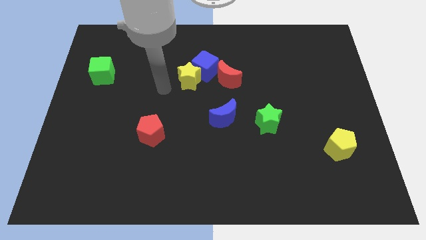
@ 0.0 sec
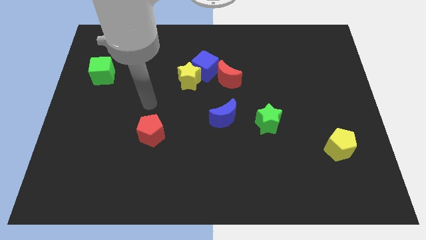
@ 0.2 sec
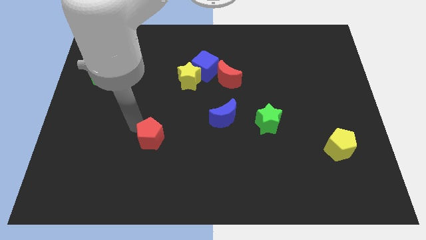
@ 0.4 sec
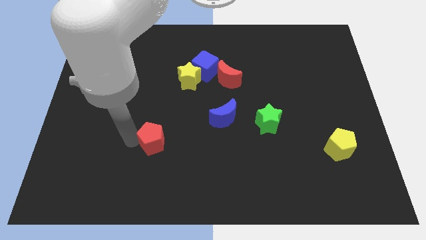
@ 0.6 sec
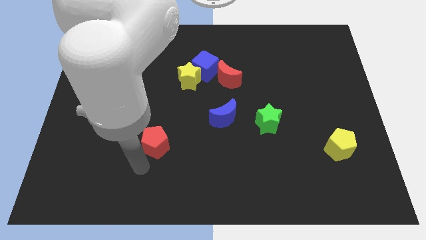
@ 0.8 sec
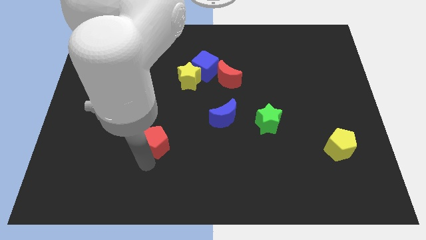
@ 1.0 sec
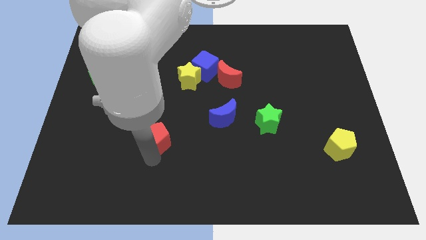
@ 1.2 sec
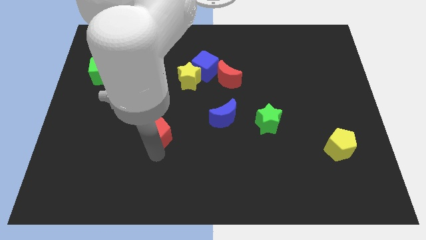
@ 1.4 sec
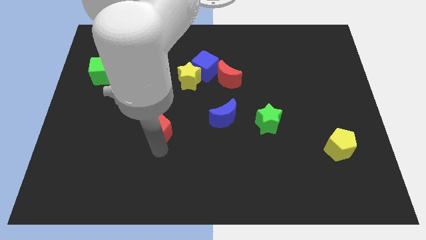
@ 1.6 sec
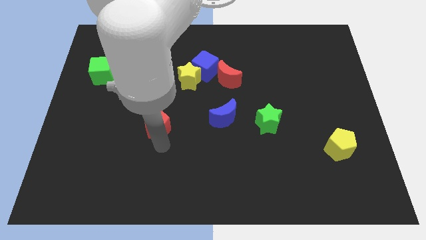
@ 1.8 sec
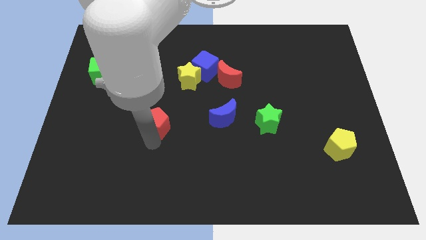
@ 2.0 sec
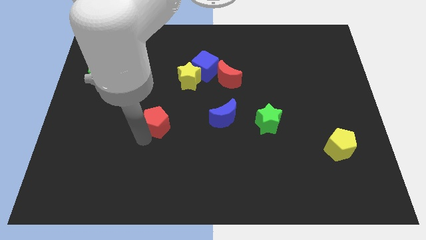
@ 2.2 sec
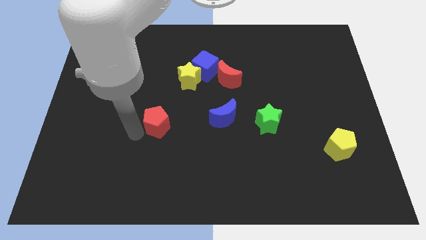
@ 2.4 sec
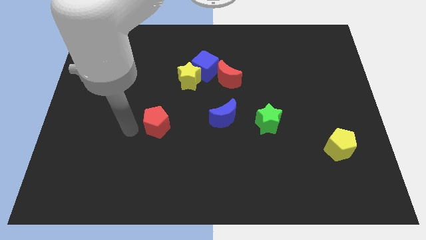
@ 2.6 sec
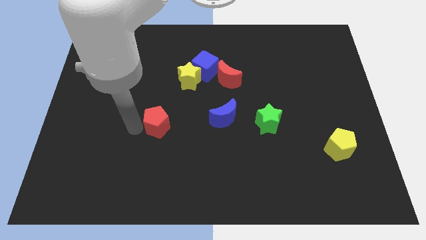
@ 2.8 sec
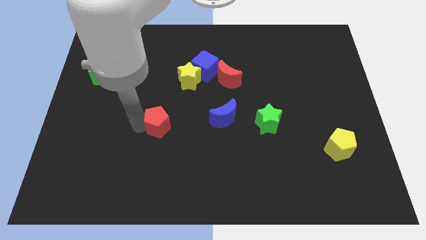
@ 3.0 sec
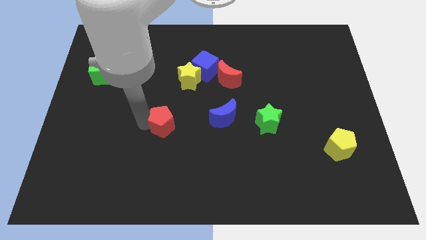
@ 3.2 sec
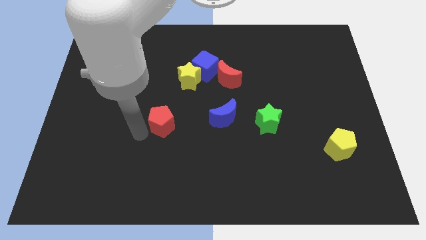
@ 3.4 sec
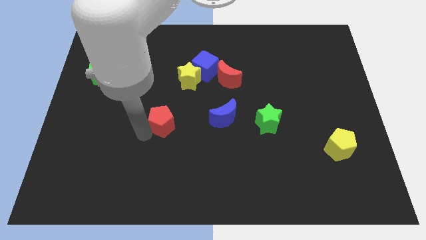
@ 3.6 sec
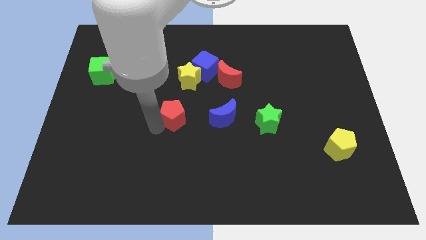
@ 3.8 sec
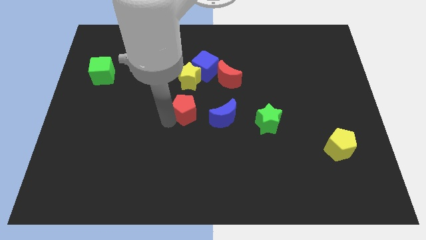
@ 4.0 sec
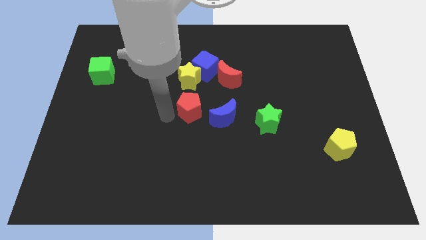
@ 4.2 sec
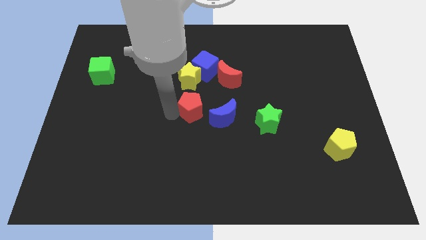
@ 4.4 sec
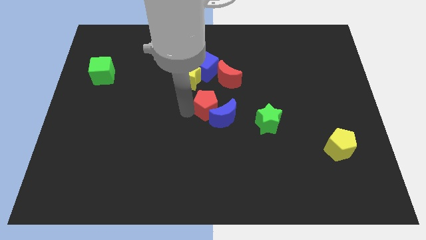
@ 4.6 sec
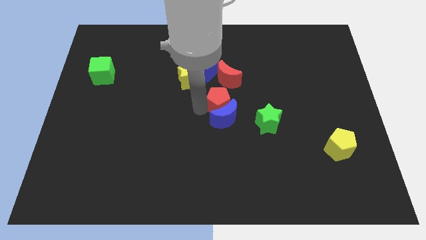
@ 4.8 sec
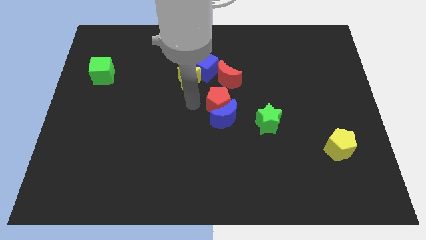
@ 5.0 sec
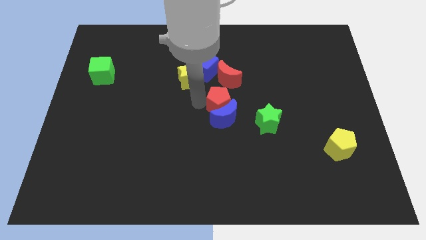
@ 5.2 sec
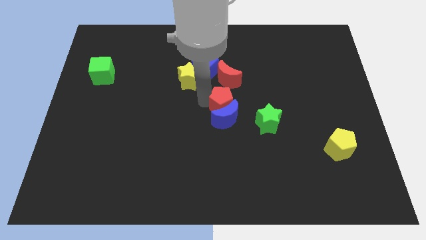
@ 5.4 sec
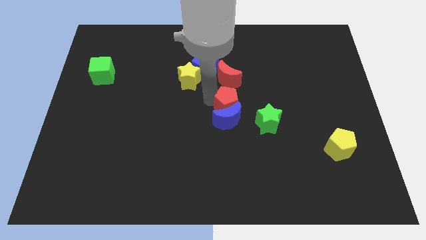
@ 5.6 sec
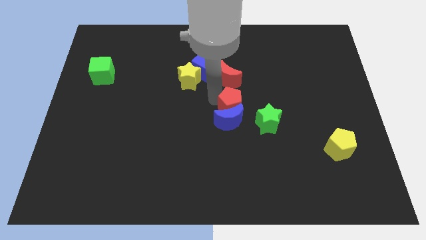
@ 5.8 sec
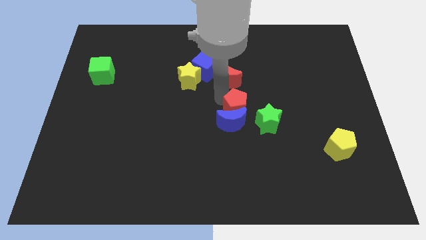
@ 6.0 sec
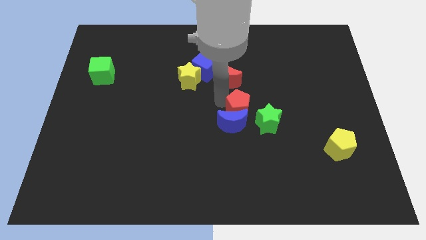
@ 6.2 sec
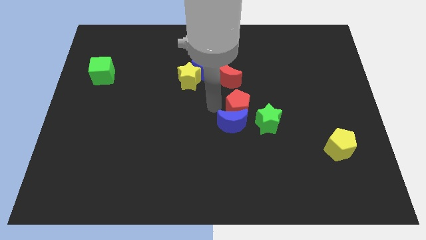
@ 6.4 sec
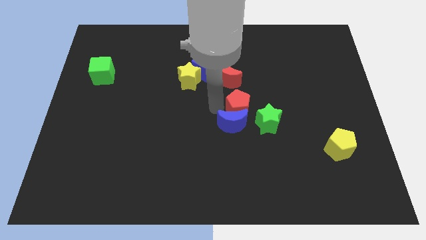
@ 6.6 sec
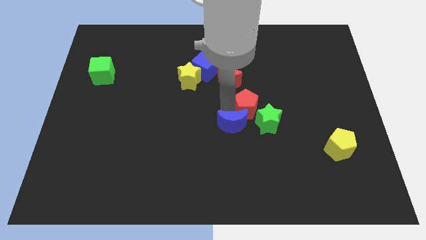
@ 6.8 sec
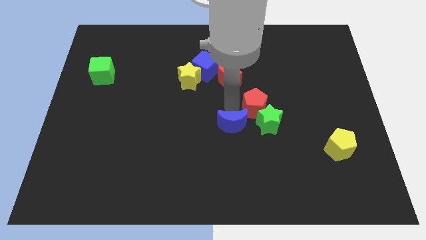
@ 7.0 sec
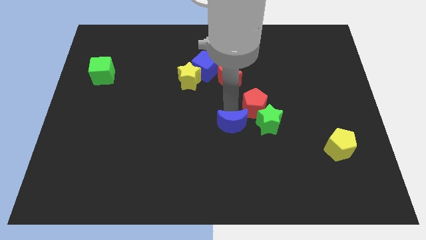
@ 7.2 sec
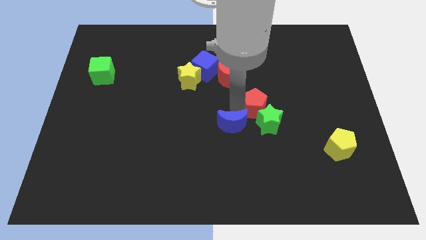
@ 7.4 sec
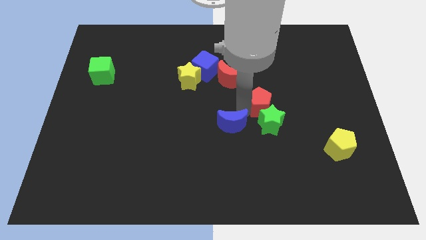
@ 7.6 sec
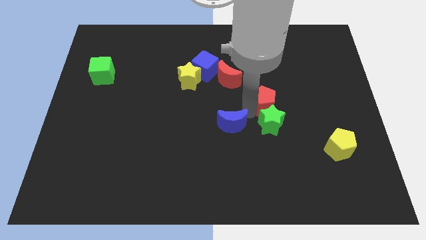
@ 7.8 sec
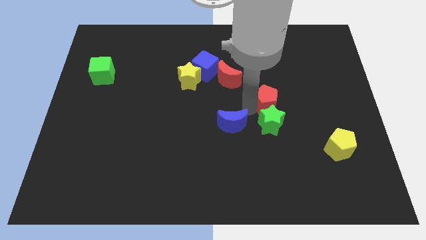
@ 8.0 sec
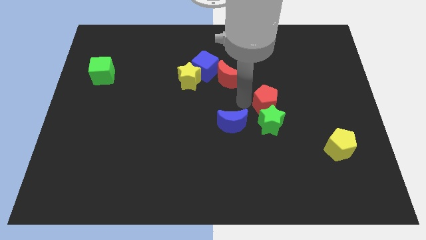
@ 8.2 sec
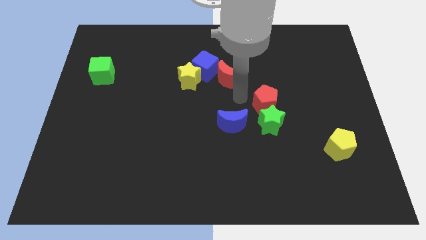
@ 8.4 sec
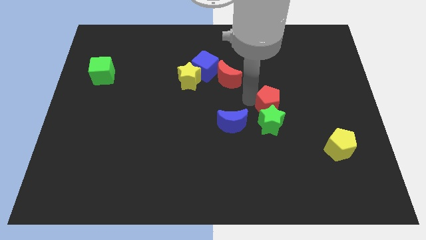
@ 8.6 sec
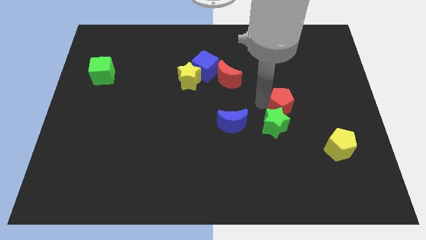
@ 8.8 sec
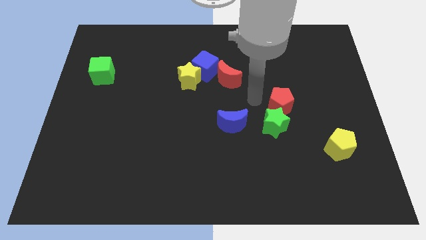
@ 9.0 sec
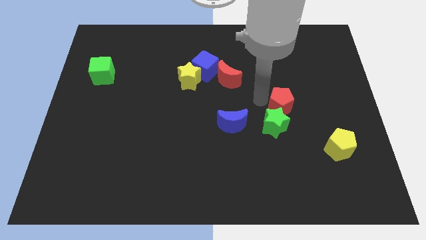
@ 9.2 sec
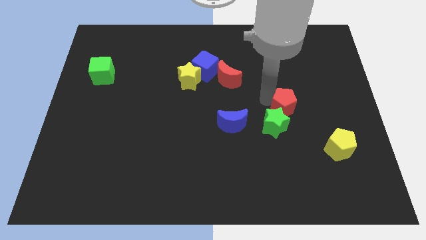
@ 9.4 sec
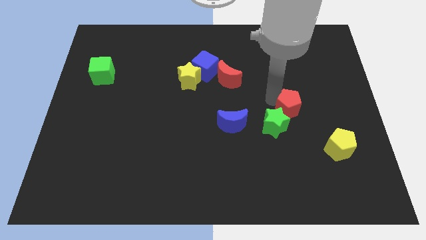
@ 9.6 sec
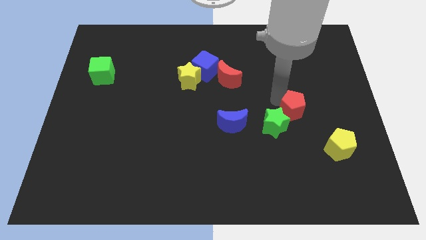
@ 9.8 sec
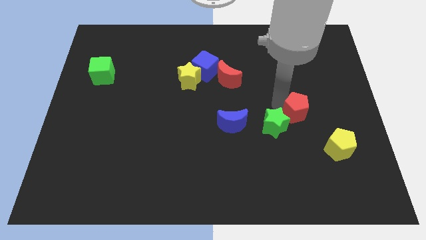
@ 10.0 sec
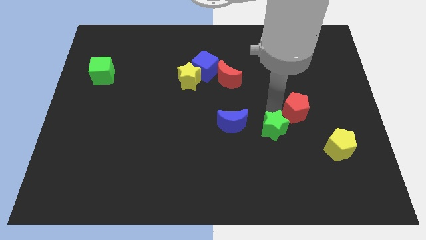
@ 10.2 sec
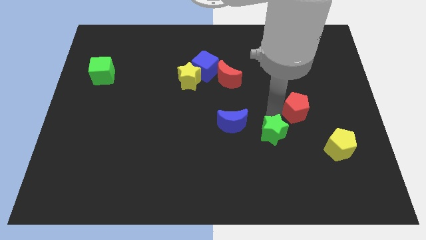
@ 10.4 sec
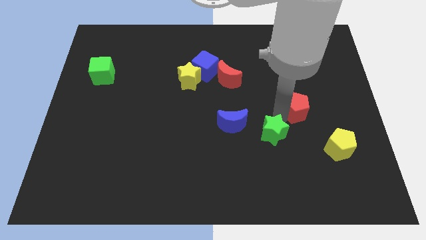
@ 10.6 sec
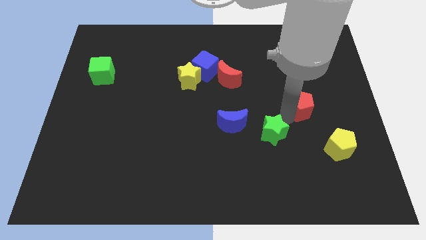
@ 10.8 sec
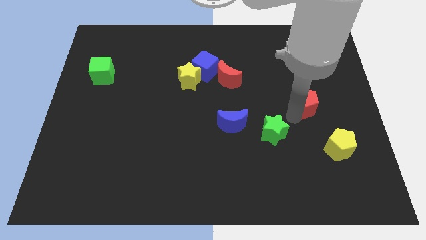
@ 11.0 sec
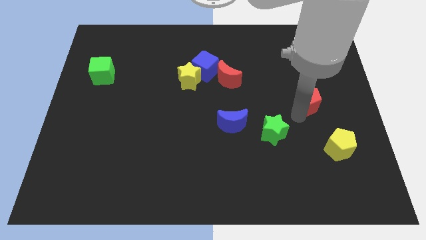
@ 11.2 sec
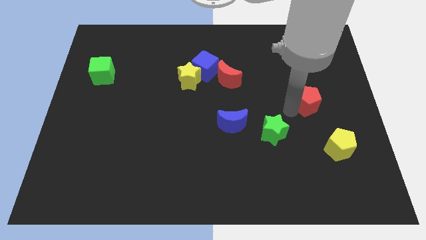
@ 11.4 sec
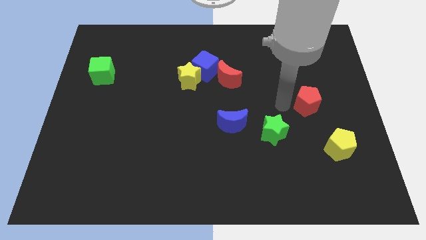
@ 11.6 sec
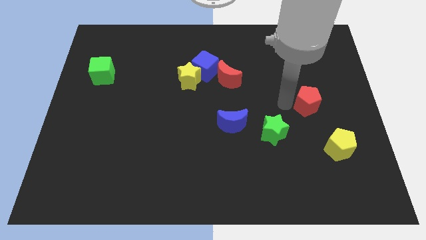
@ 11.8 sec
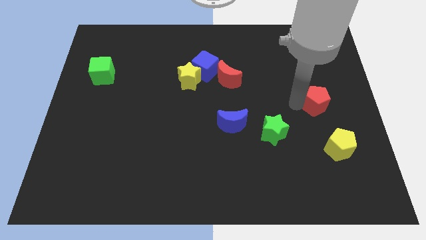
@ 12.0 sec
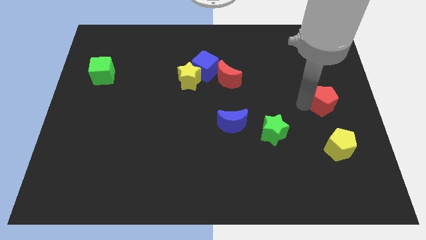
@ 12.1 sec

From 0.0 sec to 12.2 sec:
move the red pentagon to the center right
